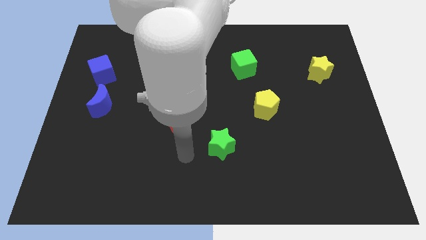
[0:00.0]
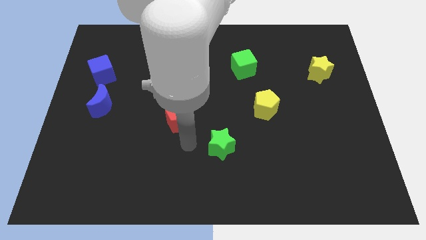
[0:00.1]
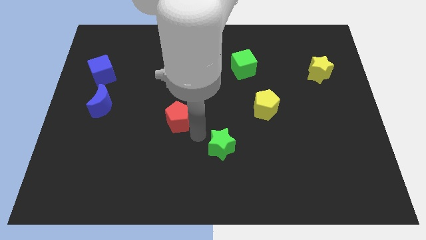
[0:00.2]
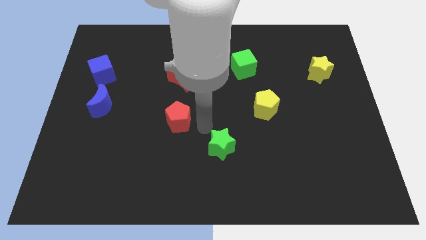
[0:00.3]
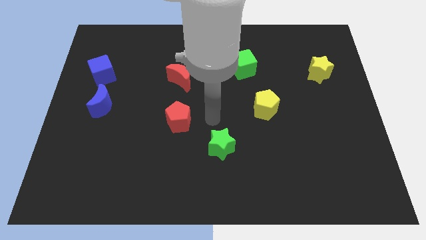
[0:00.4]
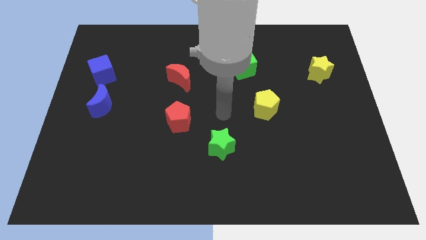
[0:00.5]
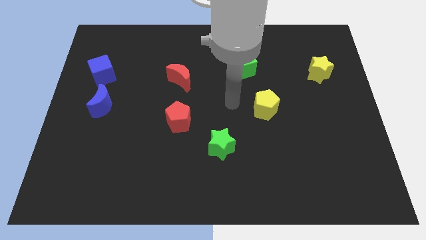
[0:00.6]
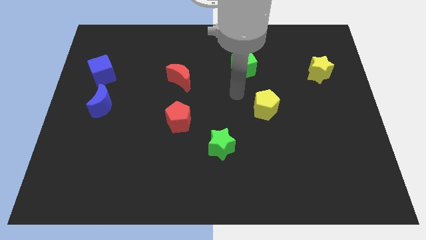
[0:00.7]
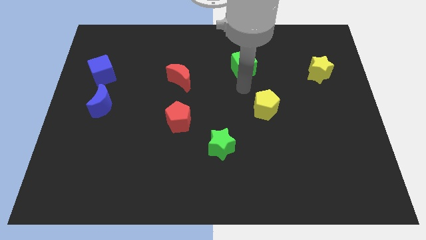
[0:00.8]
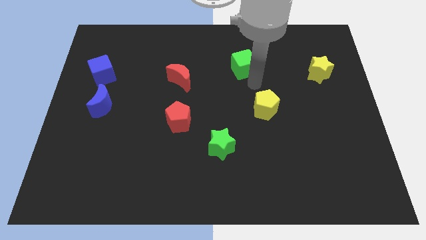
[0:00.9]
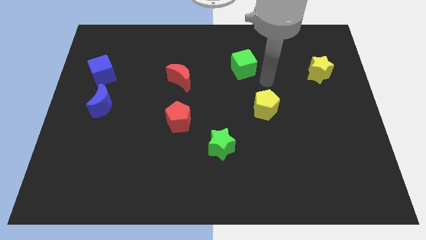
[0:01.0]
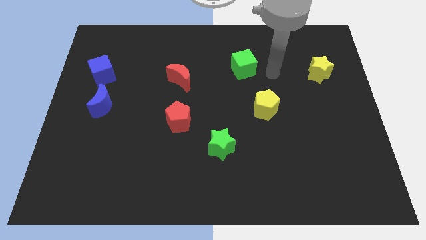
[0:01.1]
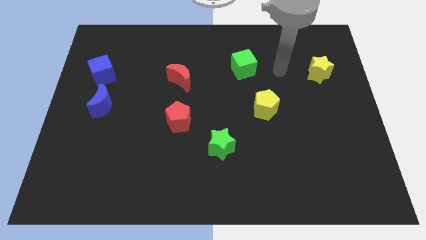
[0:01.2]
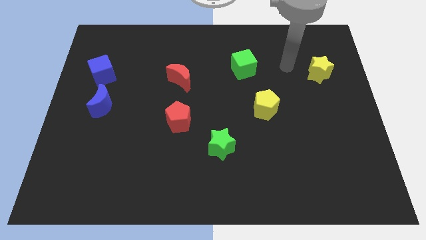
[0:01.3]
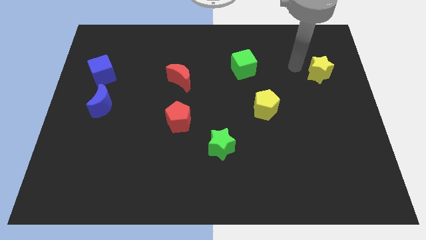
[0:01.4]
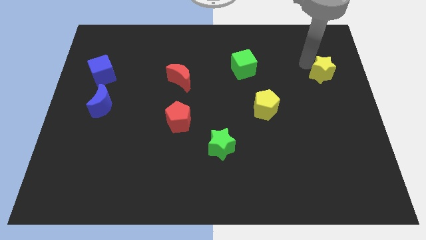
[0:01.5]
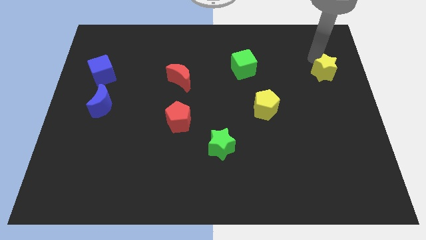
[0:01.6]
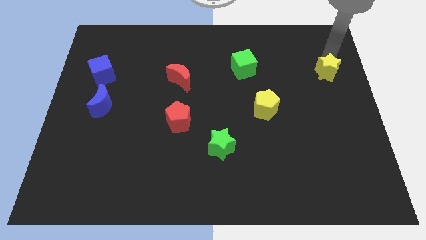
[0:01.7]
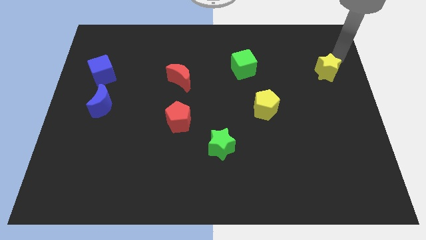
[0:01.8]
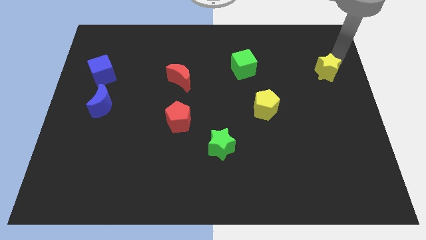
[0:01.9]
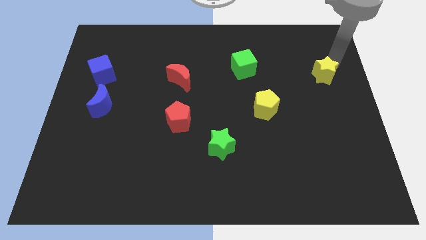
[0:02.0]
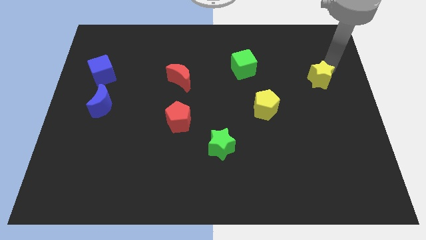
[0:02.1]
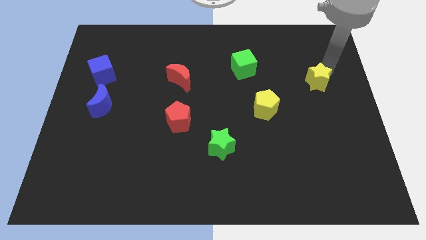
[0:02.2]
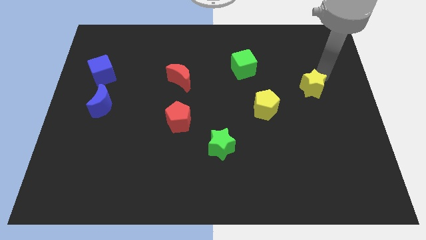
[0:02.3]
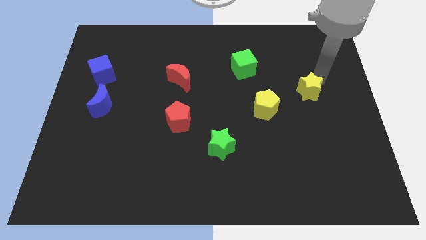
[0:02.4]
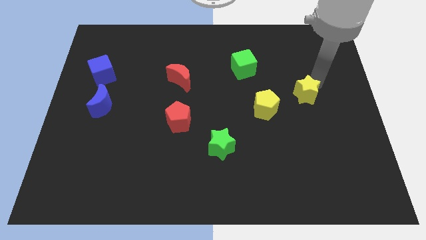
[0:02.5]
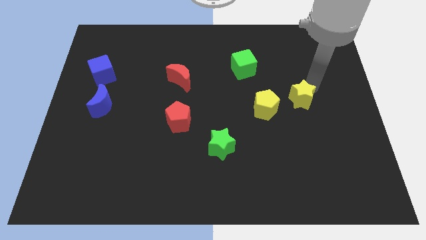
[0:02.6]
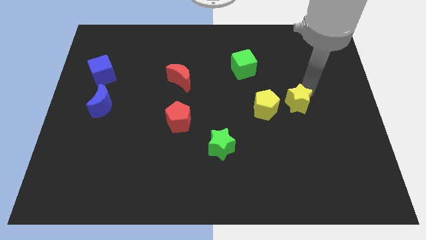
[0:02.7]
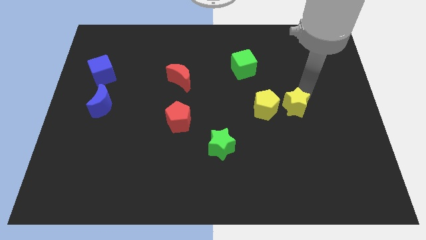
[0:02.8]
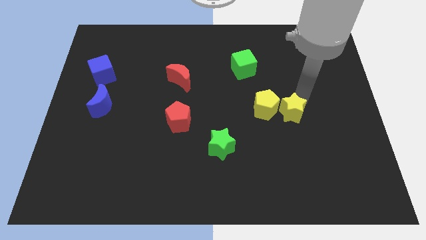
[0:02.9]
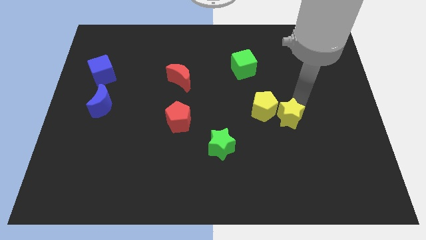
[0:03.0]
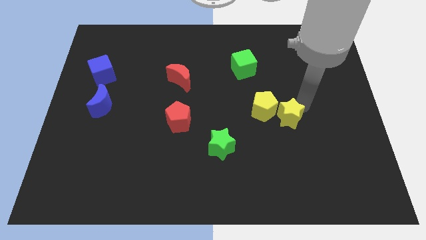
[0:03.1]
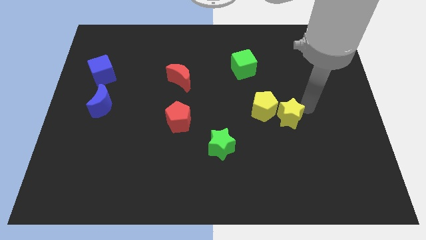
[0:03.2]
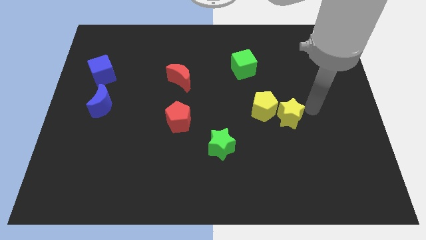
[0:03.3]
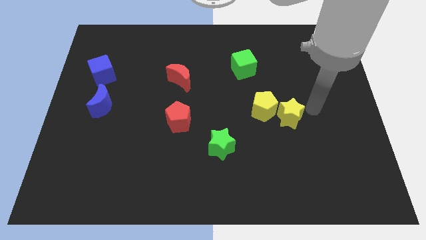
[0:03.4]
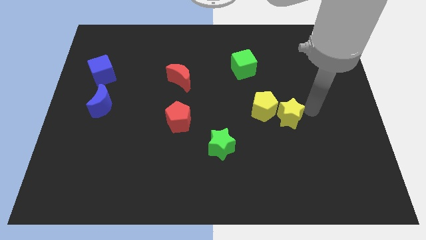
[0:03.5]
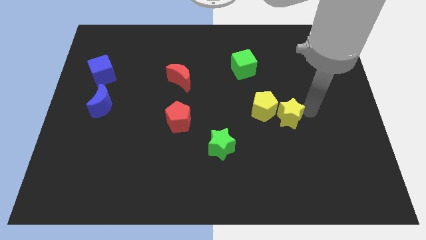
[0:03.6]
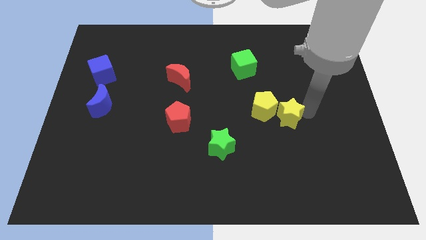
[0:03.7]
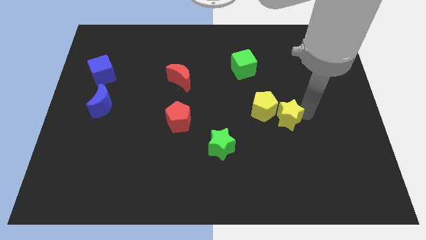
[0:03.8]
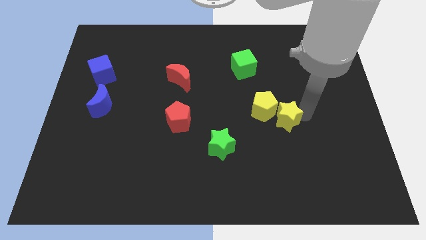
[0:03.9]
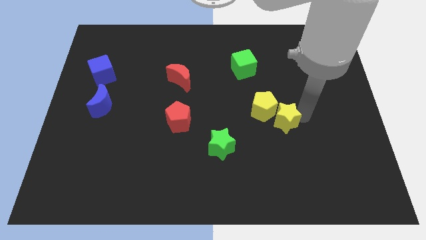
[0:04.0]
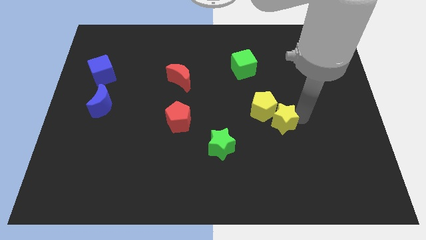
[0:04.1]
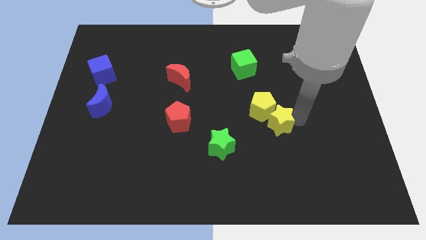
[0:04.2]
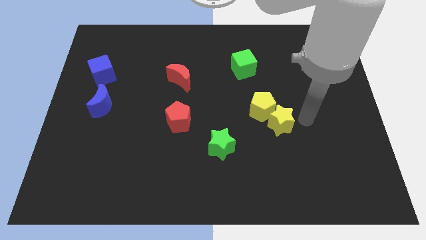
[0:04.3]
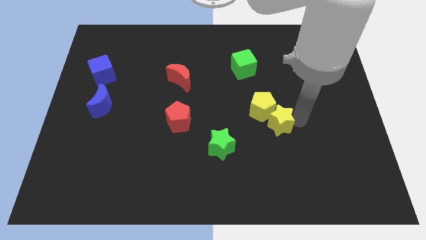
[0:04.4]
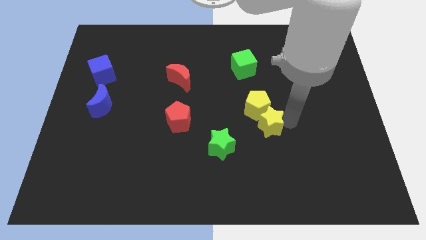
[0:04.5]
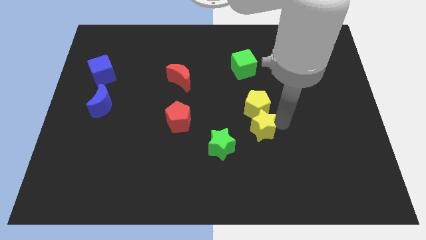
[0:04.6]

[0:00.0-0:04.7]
move the yellow star to the top right of the green star

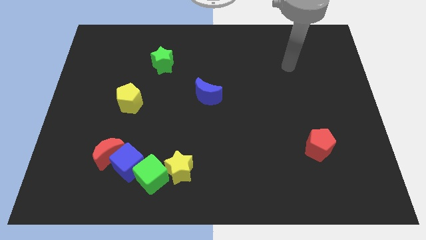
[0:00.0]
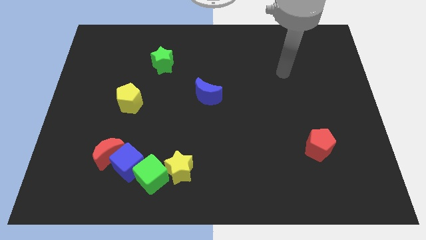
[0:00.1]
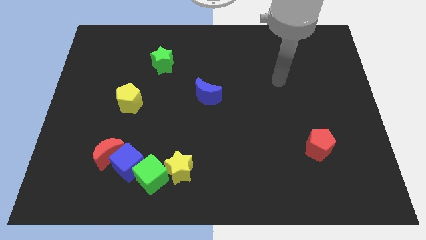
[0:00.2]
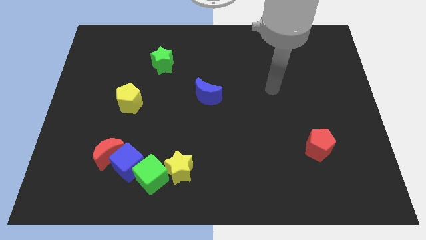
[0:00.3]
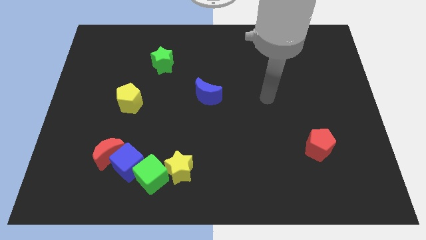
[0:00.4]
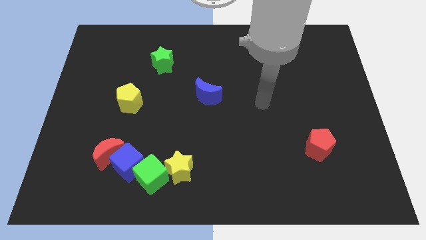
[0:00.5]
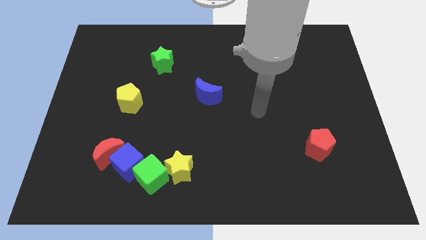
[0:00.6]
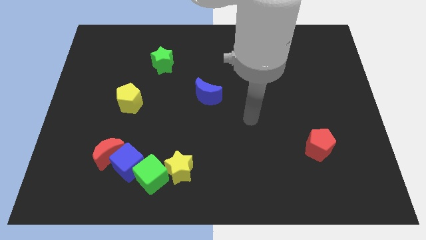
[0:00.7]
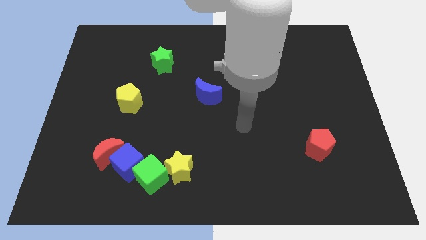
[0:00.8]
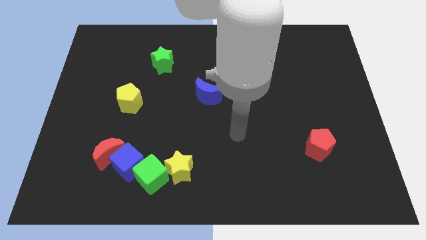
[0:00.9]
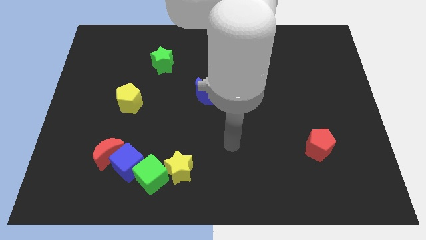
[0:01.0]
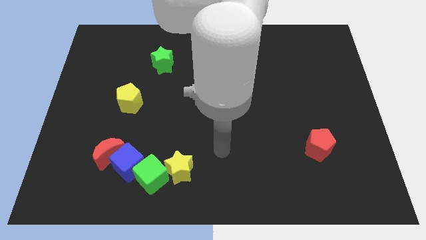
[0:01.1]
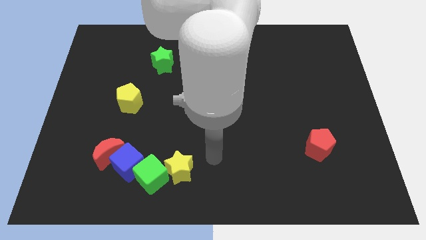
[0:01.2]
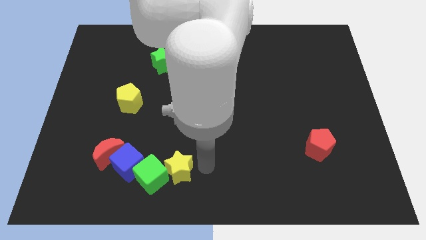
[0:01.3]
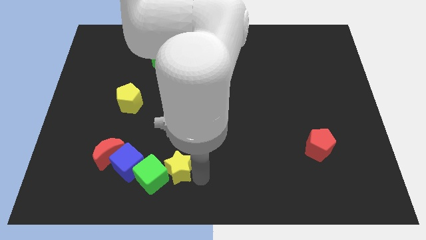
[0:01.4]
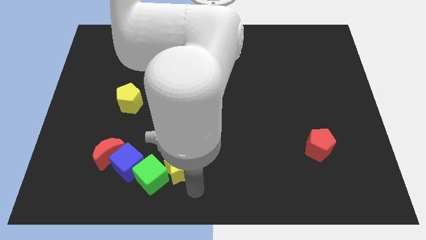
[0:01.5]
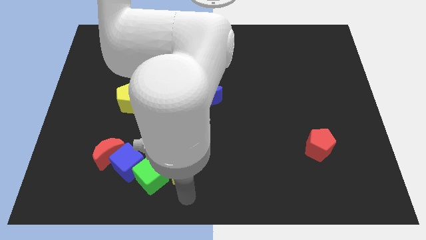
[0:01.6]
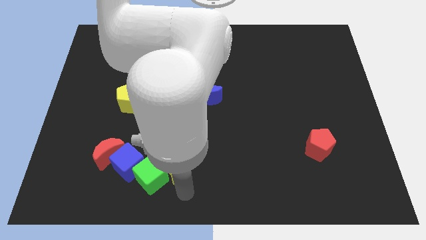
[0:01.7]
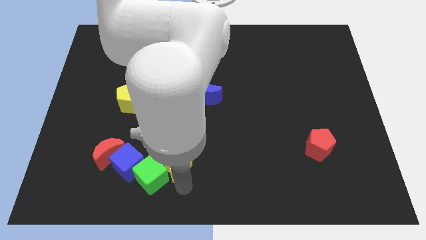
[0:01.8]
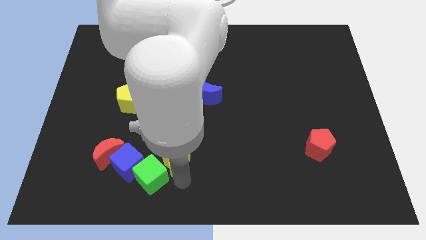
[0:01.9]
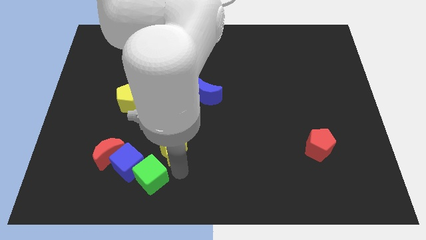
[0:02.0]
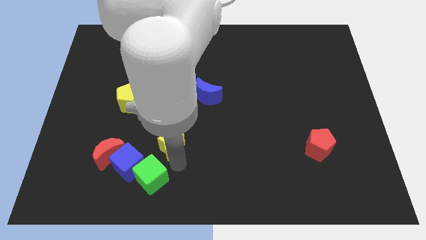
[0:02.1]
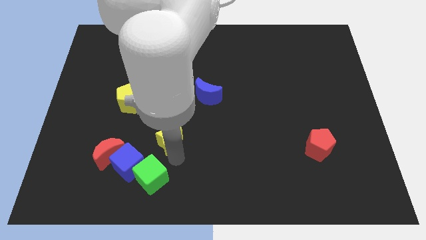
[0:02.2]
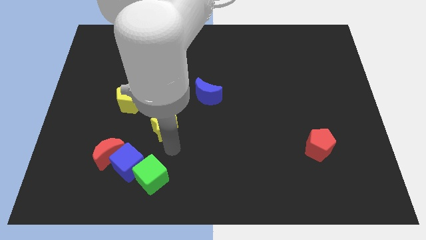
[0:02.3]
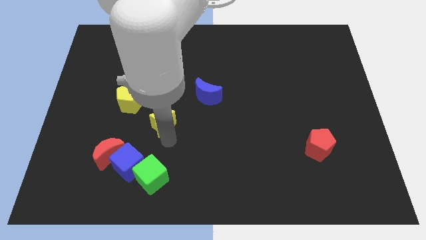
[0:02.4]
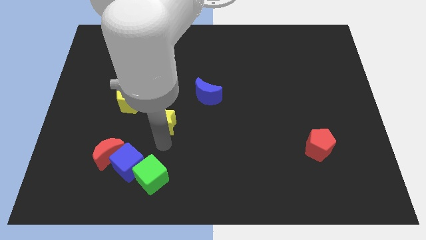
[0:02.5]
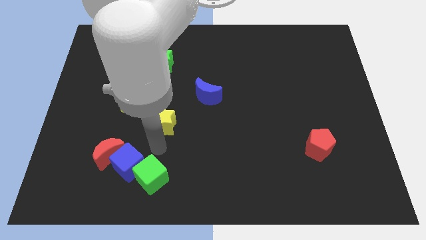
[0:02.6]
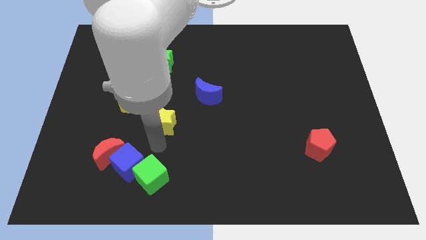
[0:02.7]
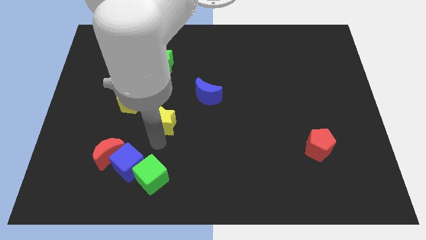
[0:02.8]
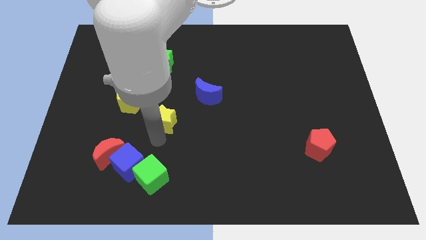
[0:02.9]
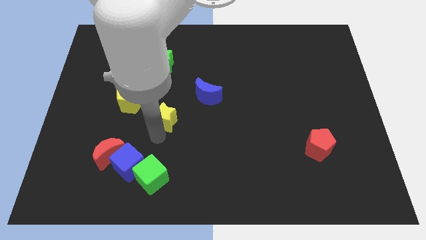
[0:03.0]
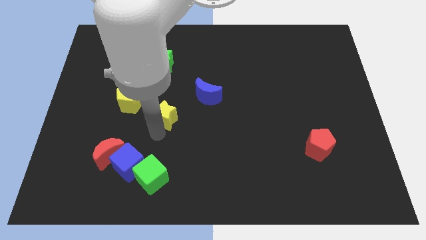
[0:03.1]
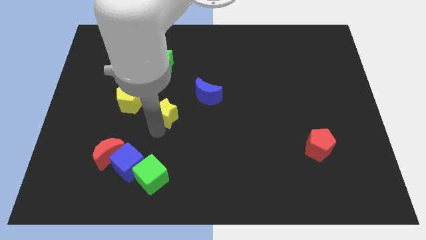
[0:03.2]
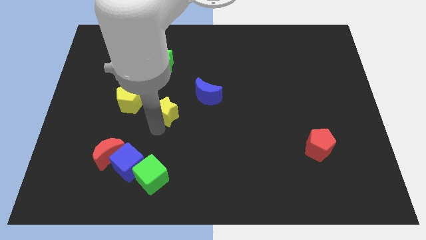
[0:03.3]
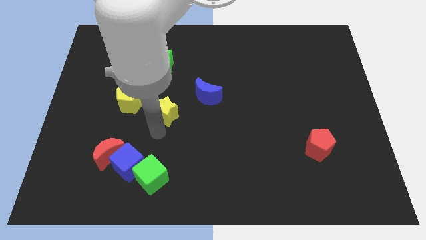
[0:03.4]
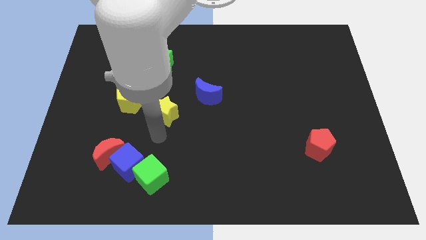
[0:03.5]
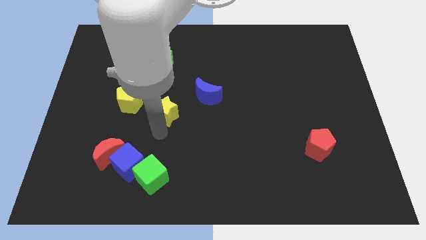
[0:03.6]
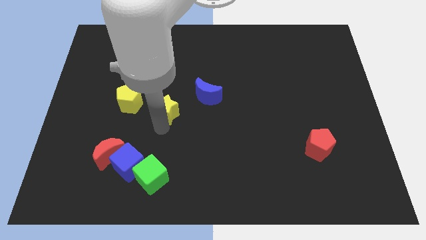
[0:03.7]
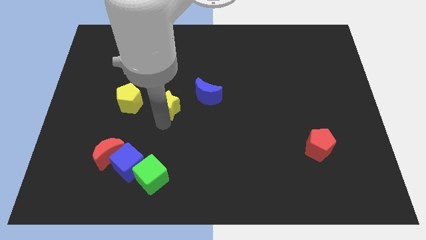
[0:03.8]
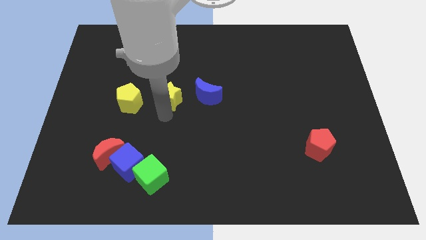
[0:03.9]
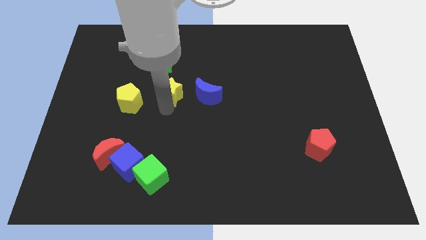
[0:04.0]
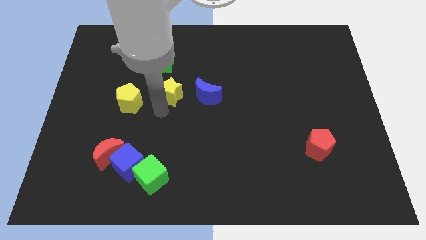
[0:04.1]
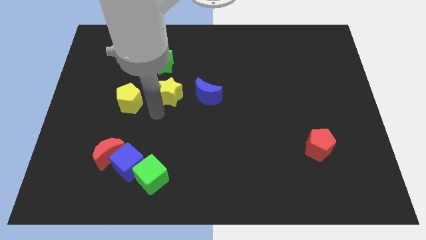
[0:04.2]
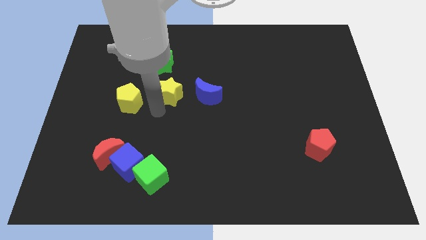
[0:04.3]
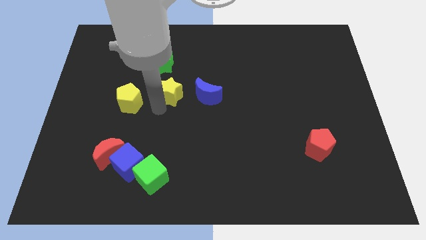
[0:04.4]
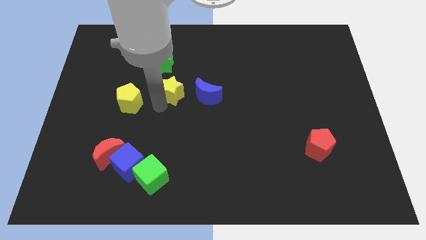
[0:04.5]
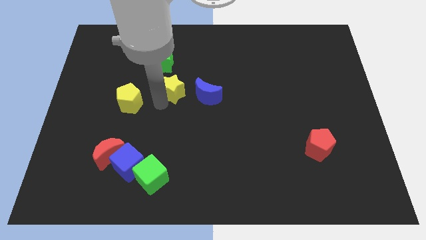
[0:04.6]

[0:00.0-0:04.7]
push the yellow star diagonally down and to the right of the green star
